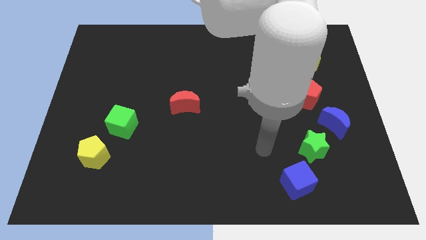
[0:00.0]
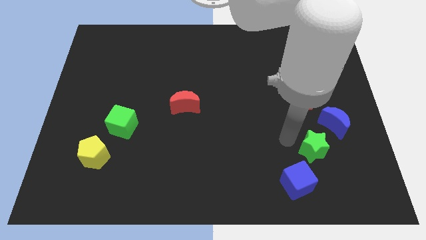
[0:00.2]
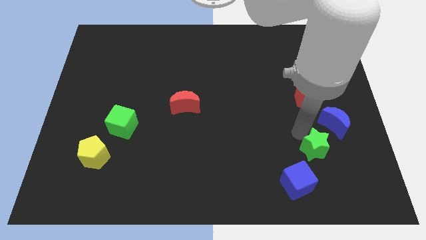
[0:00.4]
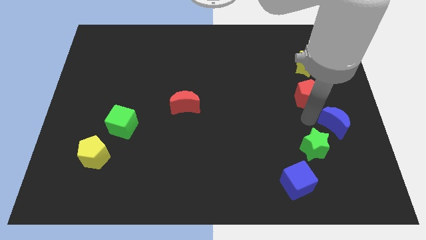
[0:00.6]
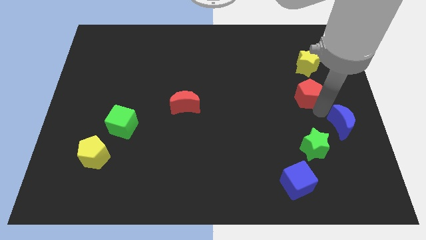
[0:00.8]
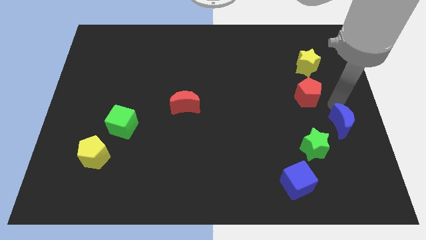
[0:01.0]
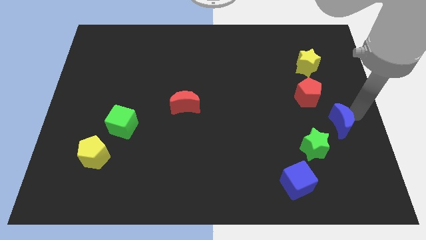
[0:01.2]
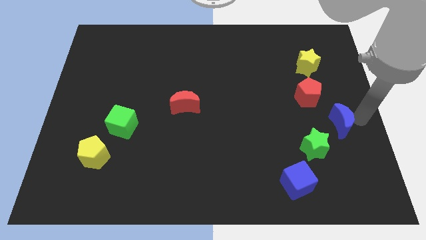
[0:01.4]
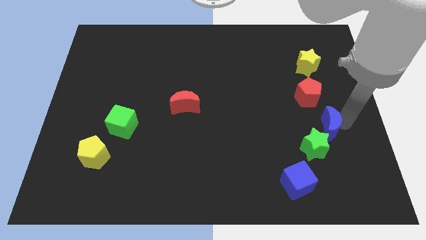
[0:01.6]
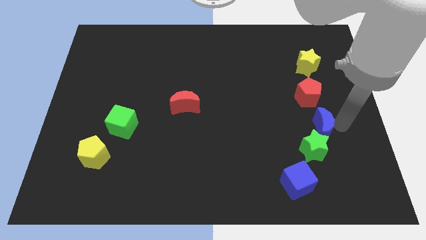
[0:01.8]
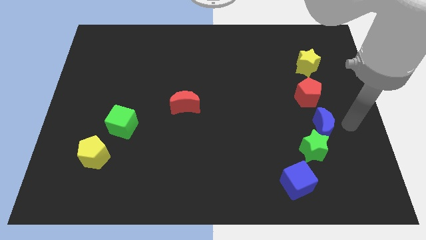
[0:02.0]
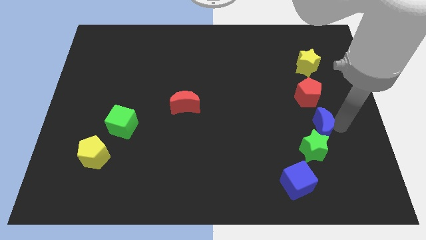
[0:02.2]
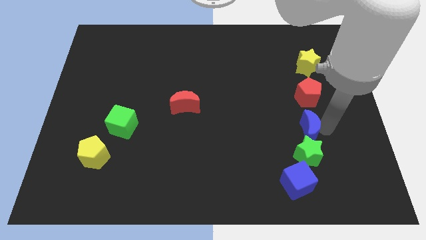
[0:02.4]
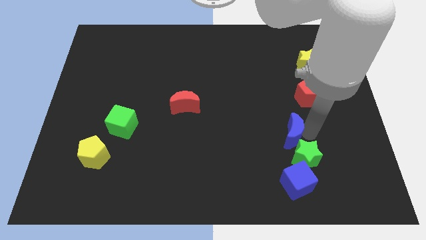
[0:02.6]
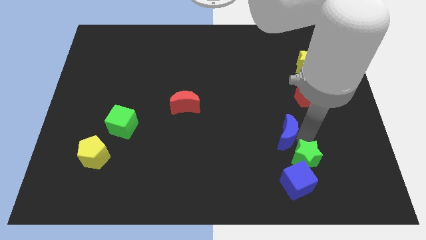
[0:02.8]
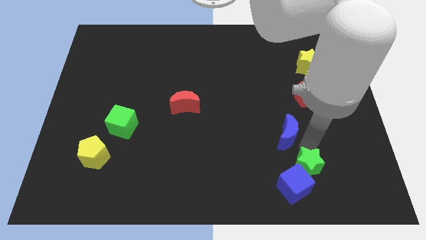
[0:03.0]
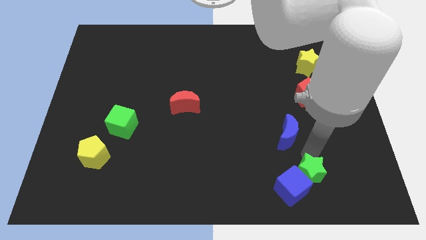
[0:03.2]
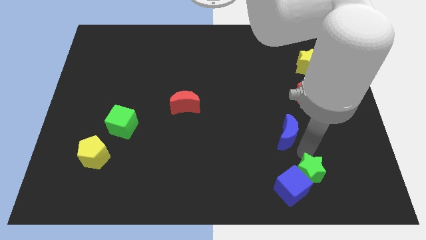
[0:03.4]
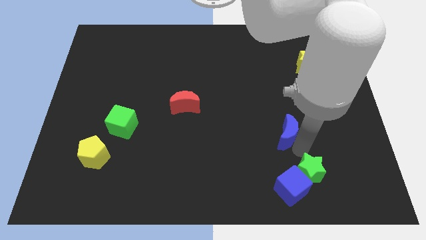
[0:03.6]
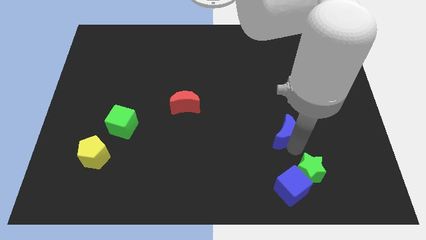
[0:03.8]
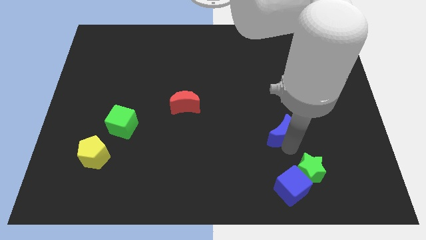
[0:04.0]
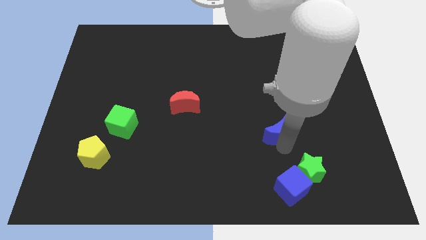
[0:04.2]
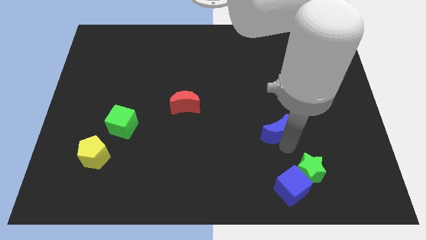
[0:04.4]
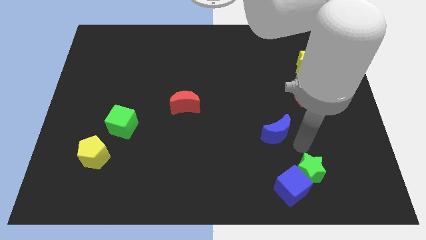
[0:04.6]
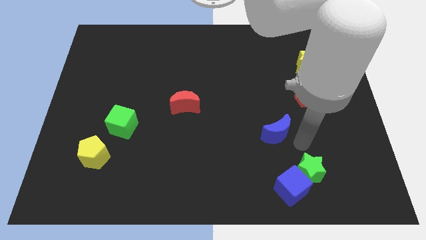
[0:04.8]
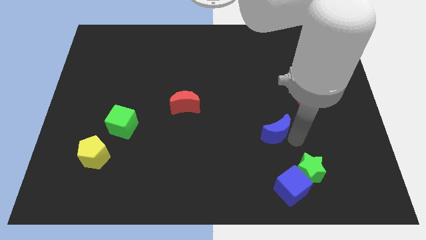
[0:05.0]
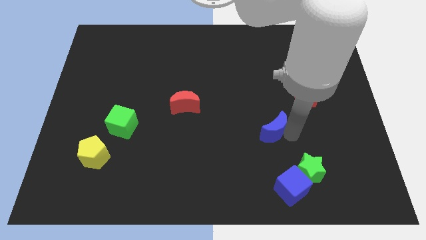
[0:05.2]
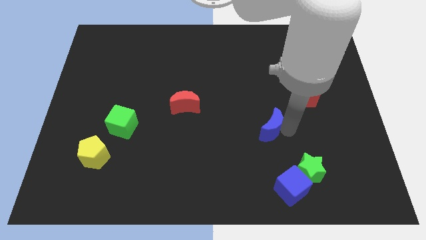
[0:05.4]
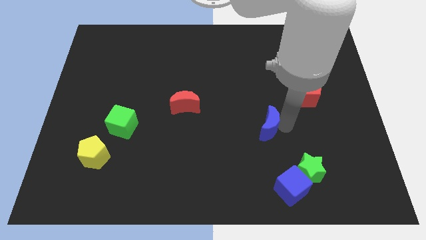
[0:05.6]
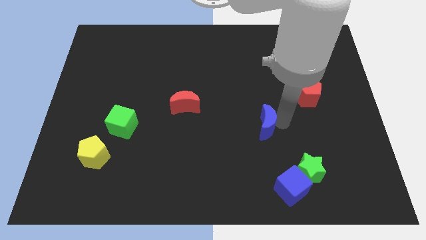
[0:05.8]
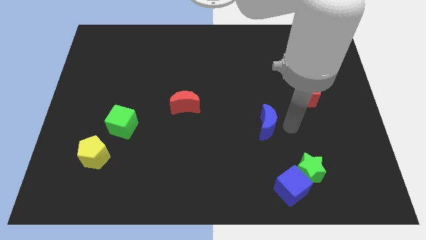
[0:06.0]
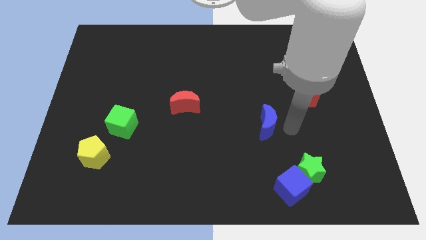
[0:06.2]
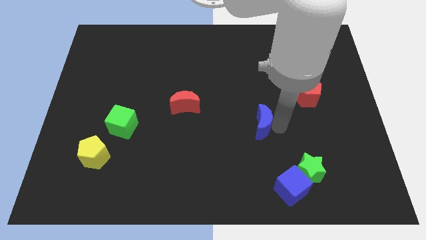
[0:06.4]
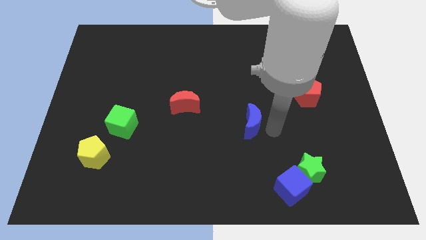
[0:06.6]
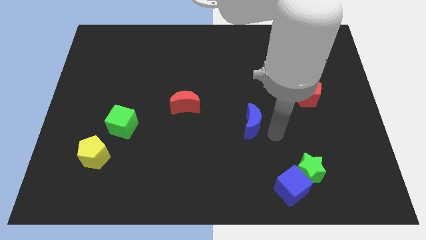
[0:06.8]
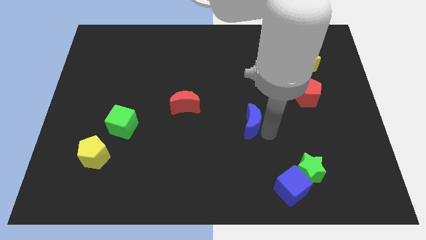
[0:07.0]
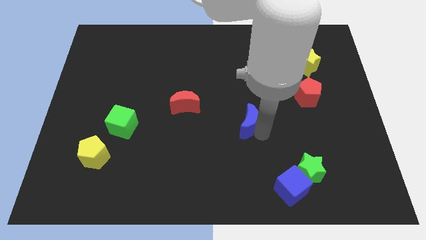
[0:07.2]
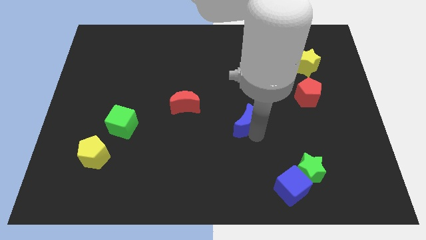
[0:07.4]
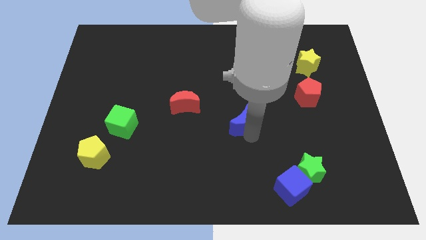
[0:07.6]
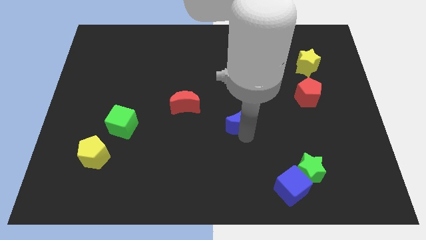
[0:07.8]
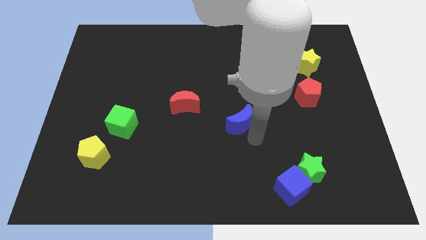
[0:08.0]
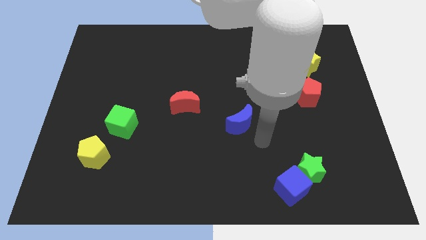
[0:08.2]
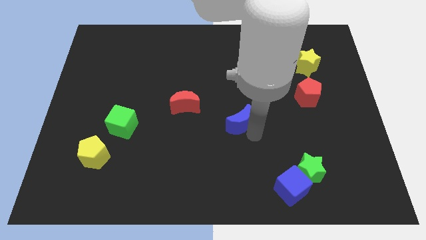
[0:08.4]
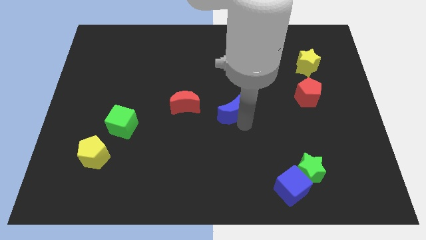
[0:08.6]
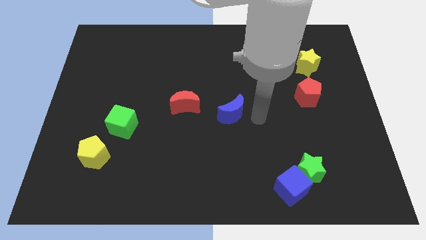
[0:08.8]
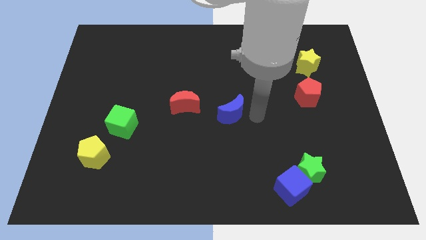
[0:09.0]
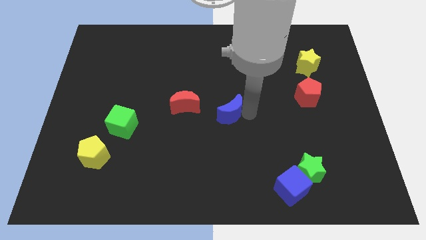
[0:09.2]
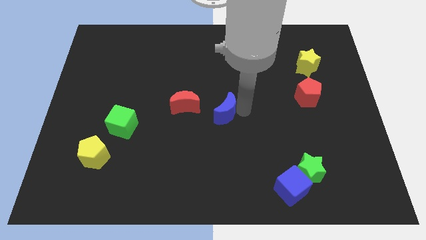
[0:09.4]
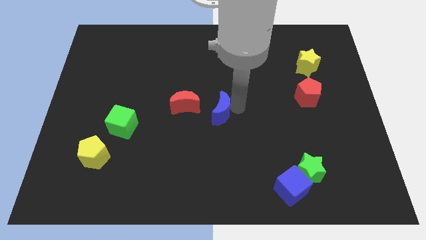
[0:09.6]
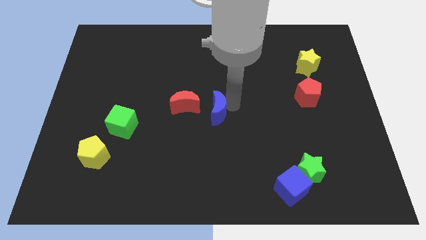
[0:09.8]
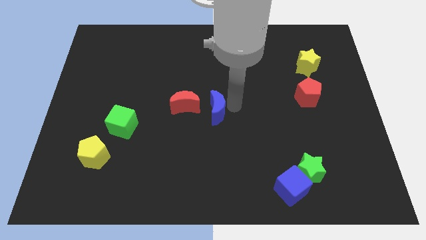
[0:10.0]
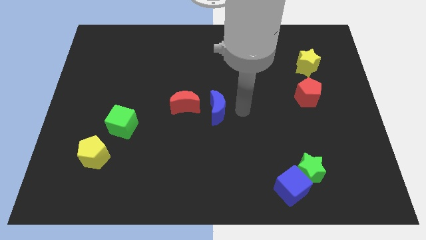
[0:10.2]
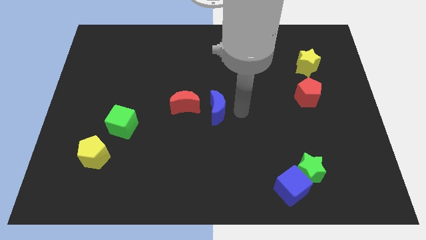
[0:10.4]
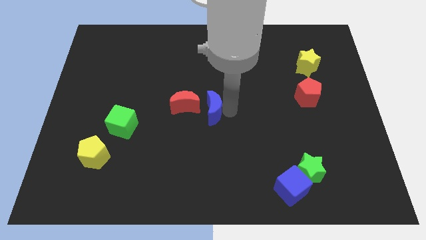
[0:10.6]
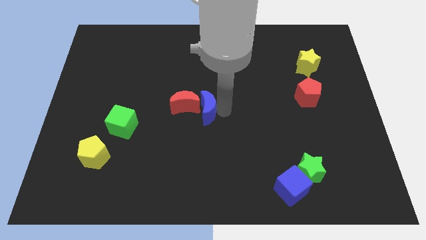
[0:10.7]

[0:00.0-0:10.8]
put the blue moon next to the red moon

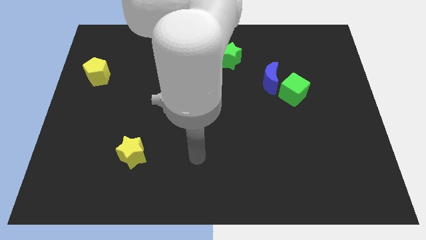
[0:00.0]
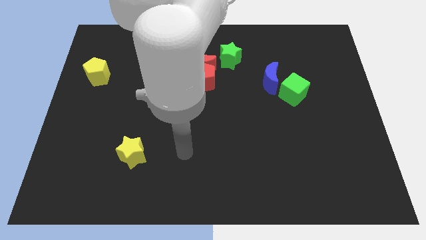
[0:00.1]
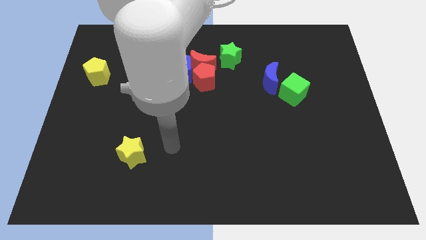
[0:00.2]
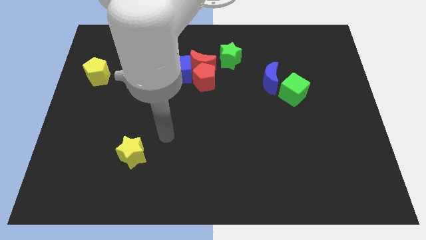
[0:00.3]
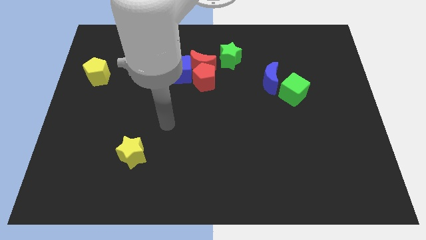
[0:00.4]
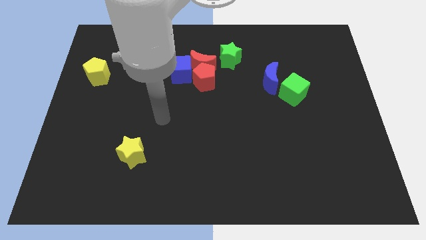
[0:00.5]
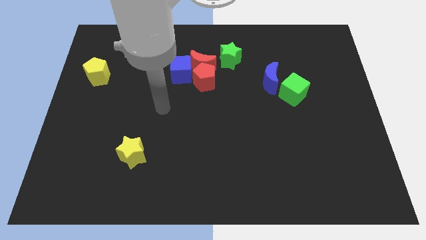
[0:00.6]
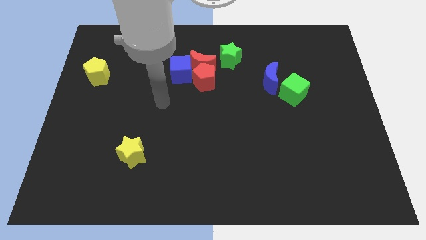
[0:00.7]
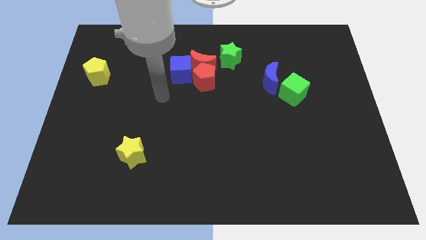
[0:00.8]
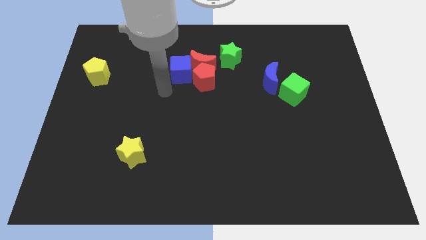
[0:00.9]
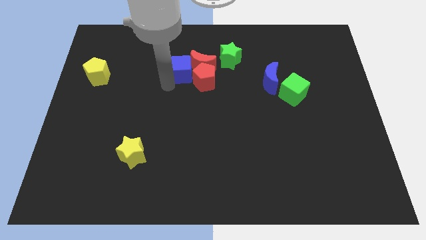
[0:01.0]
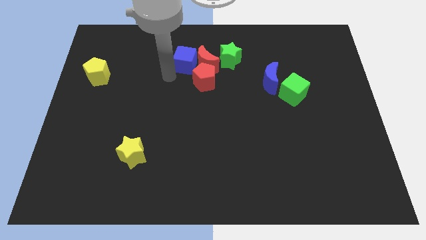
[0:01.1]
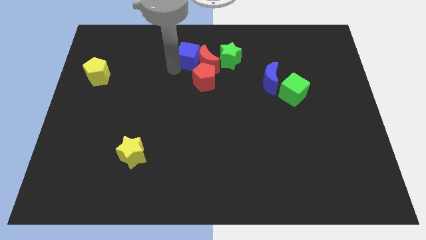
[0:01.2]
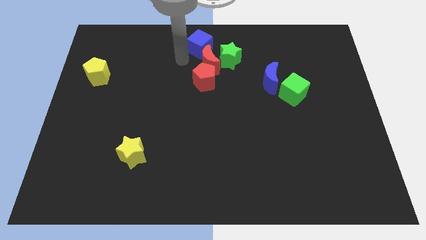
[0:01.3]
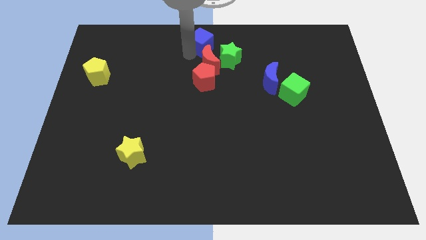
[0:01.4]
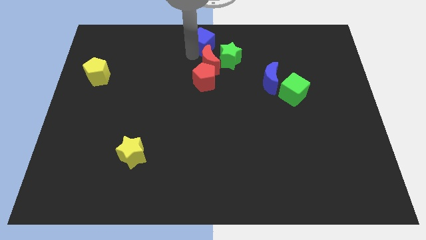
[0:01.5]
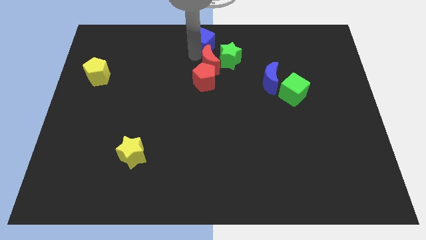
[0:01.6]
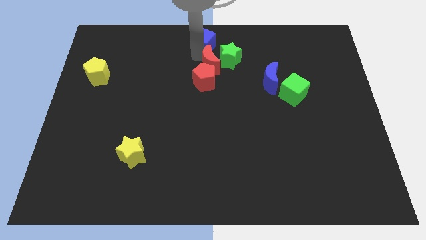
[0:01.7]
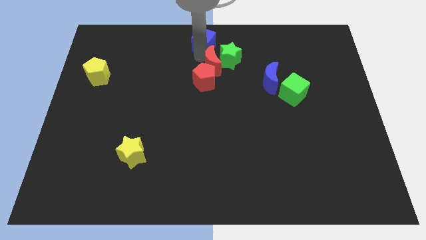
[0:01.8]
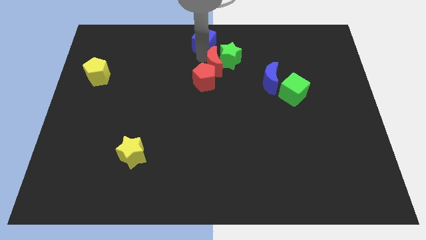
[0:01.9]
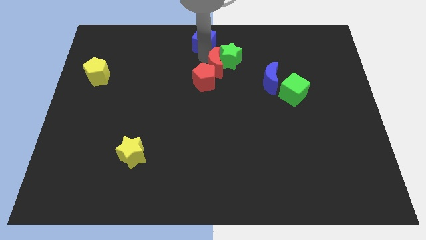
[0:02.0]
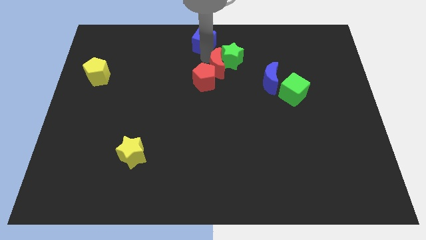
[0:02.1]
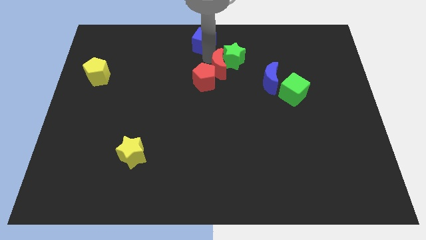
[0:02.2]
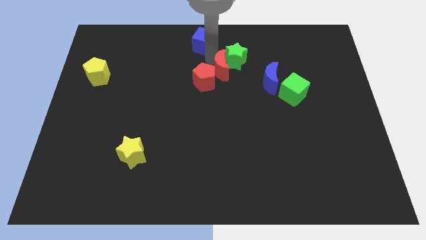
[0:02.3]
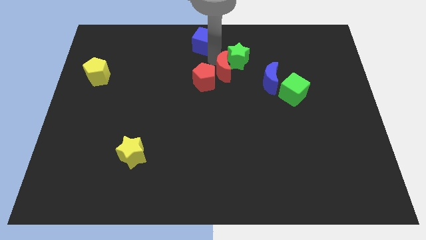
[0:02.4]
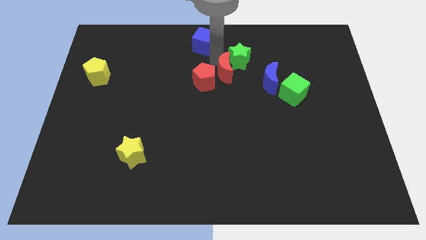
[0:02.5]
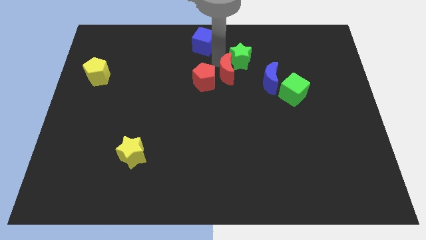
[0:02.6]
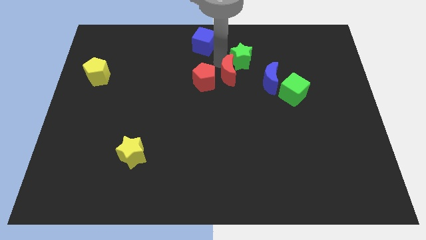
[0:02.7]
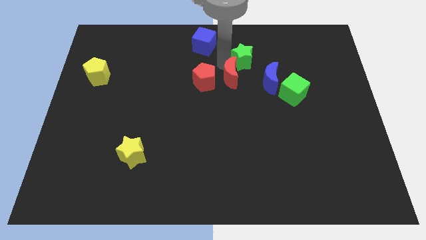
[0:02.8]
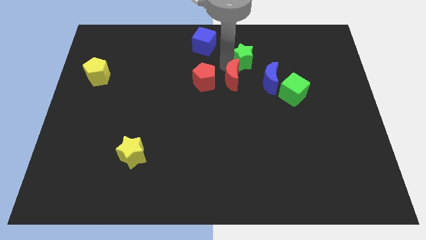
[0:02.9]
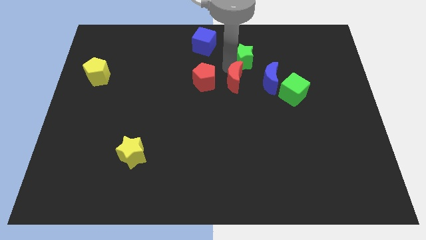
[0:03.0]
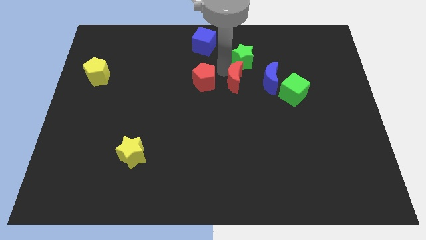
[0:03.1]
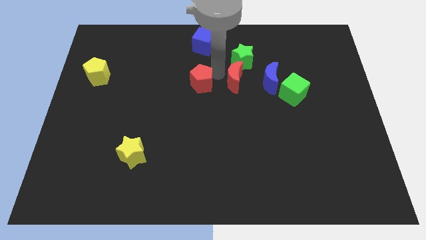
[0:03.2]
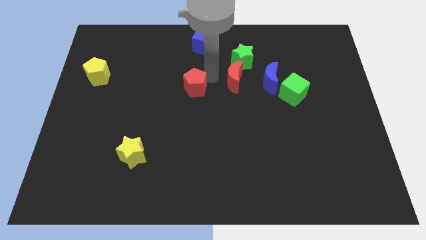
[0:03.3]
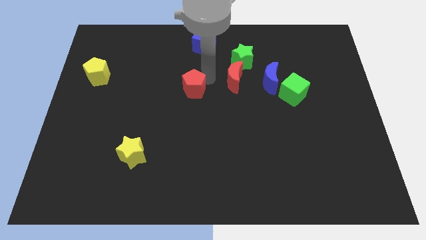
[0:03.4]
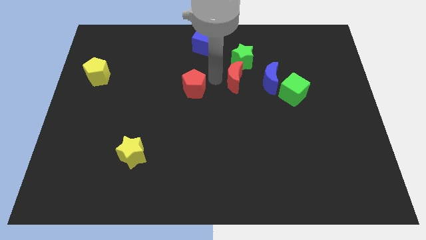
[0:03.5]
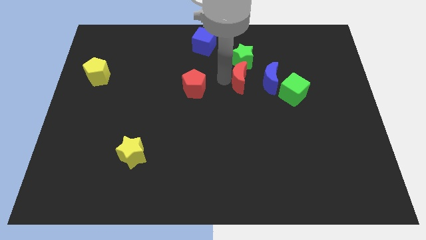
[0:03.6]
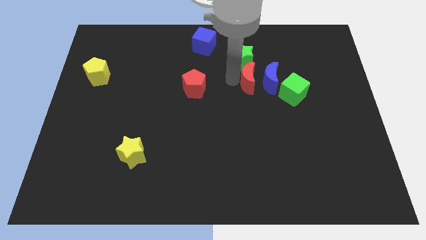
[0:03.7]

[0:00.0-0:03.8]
put the red moon towards the blue moon
